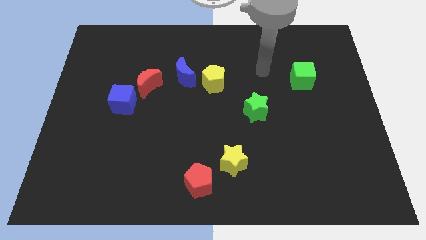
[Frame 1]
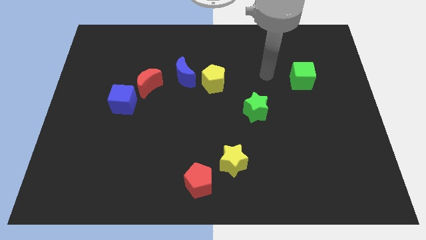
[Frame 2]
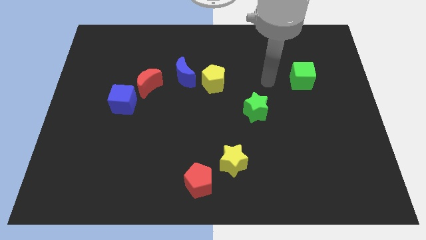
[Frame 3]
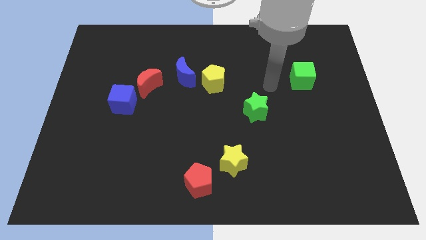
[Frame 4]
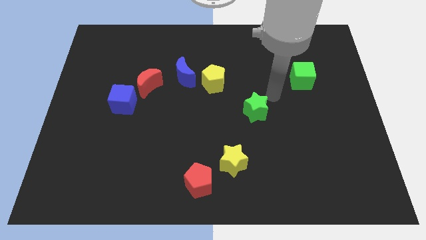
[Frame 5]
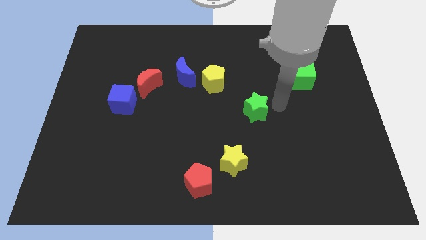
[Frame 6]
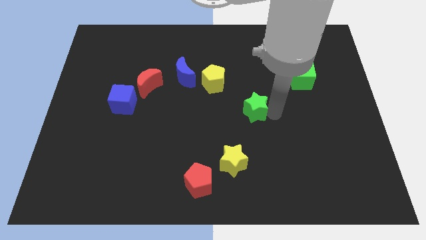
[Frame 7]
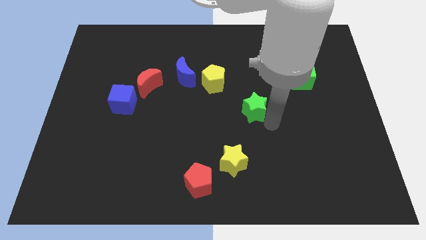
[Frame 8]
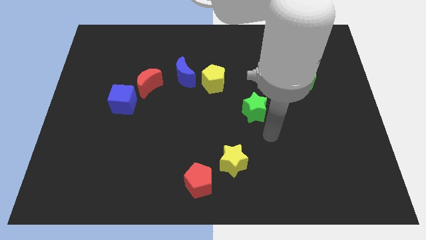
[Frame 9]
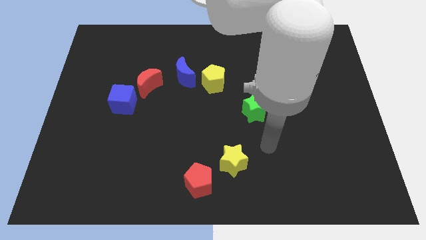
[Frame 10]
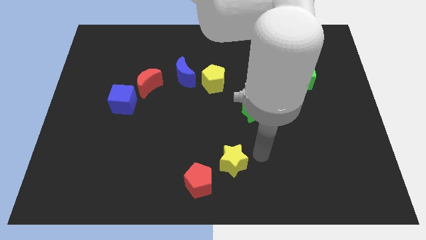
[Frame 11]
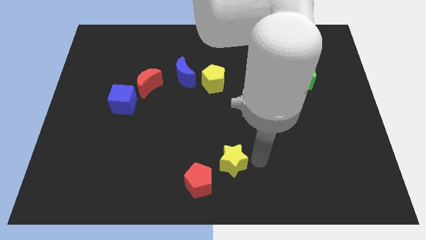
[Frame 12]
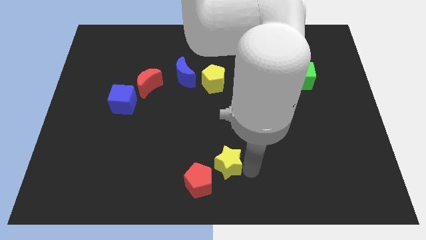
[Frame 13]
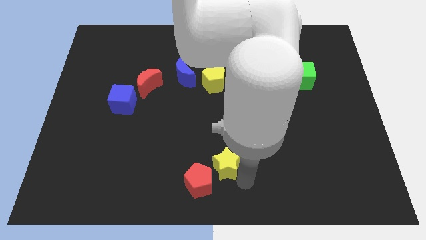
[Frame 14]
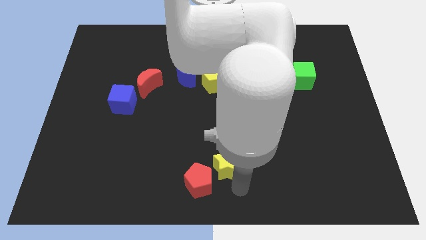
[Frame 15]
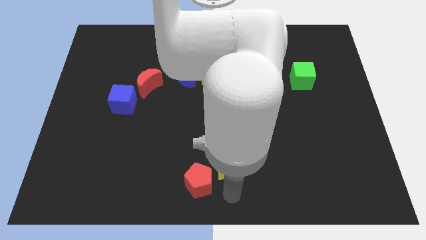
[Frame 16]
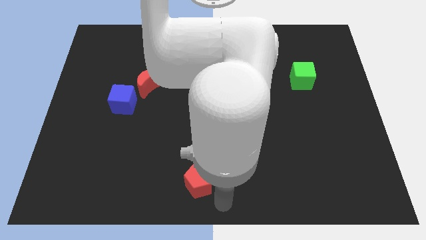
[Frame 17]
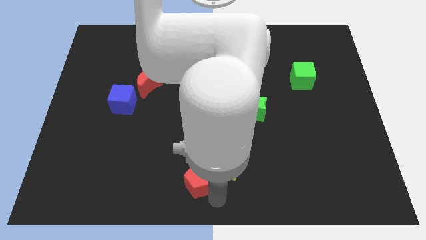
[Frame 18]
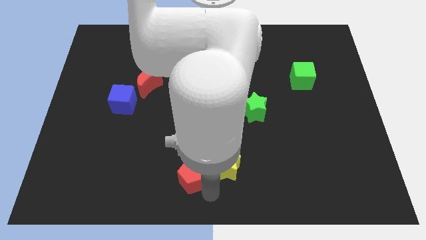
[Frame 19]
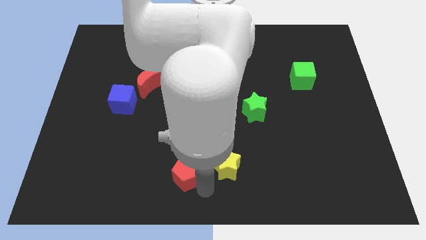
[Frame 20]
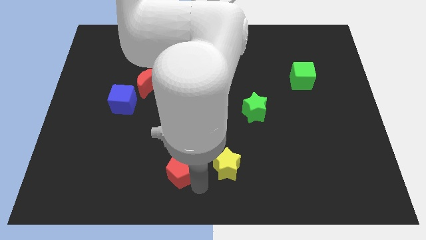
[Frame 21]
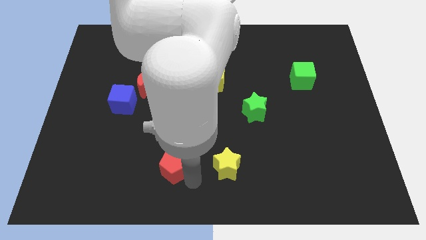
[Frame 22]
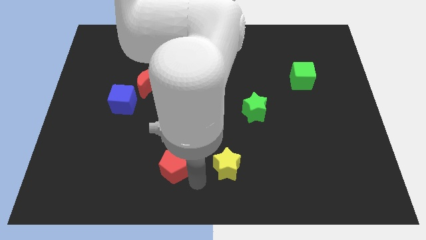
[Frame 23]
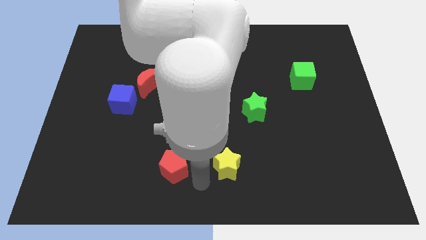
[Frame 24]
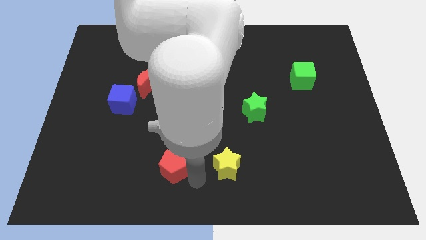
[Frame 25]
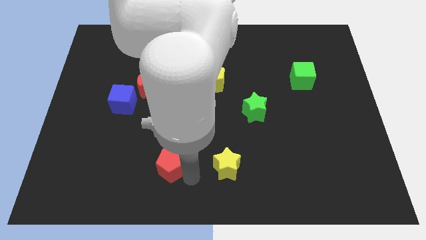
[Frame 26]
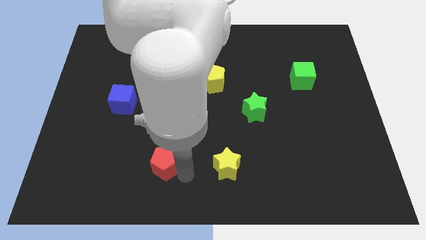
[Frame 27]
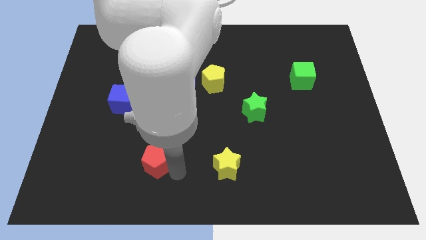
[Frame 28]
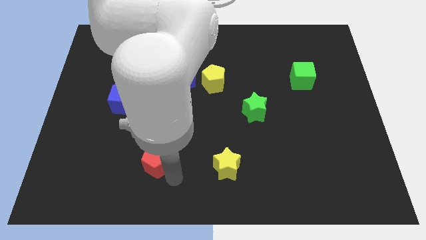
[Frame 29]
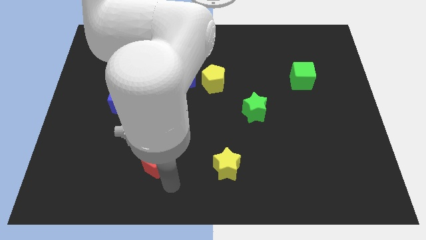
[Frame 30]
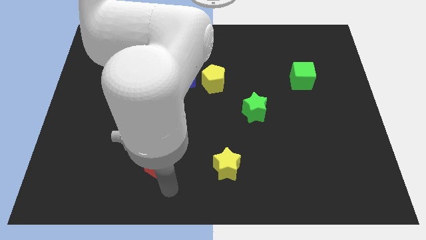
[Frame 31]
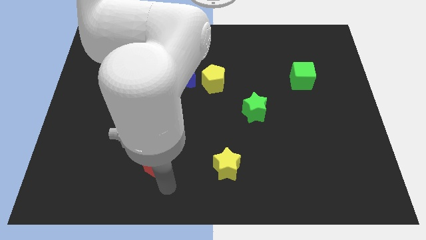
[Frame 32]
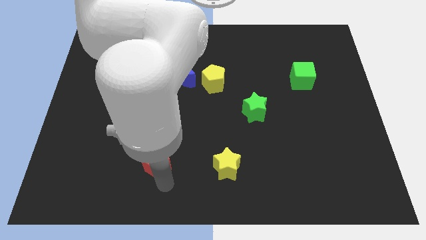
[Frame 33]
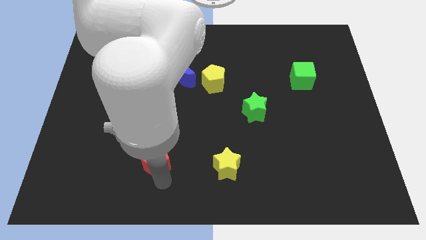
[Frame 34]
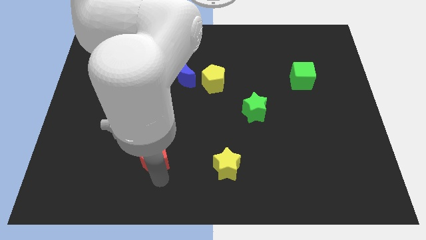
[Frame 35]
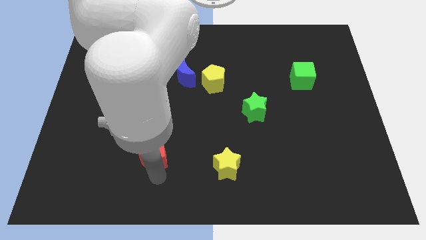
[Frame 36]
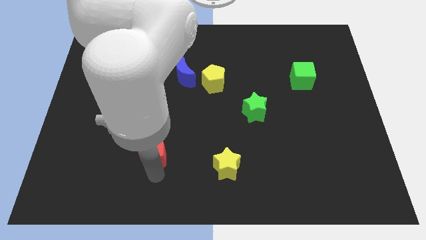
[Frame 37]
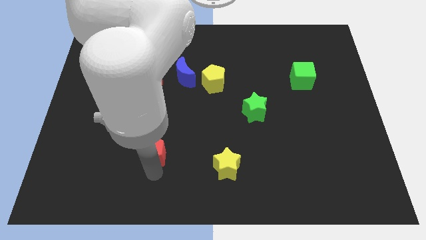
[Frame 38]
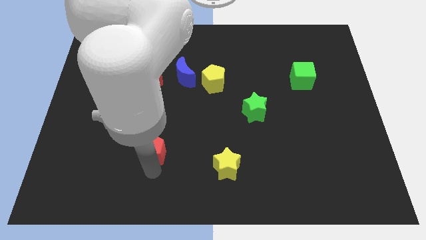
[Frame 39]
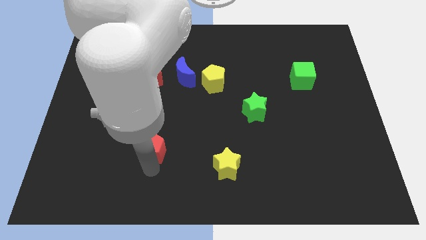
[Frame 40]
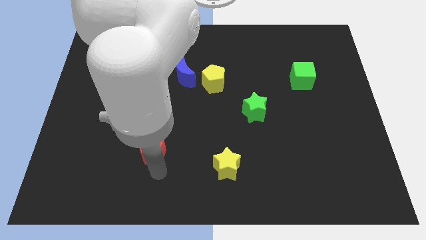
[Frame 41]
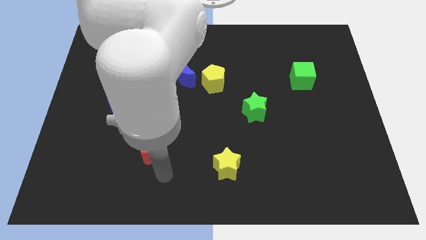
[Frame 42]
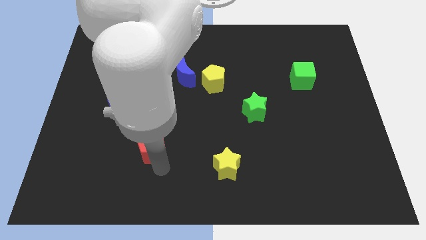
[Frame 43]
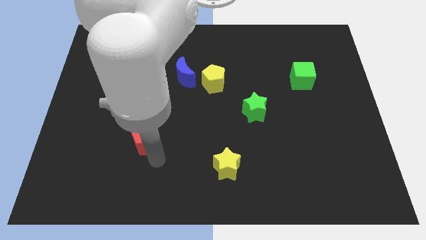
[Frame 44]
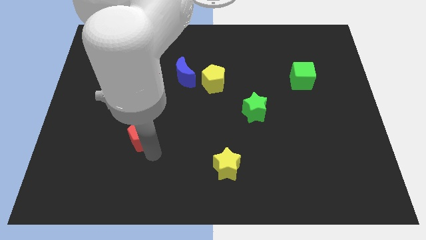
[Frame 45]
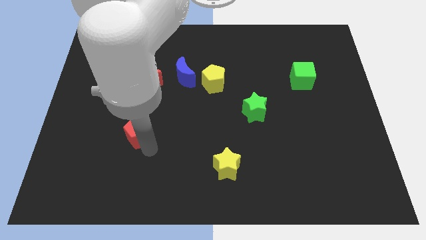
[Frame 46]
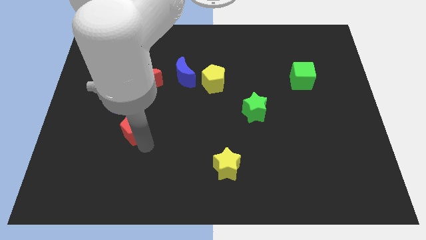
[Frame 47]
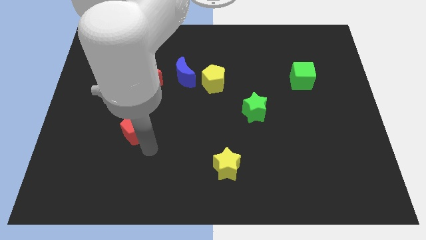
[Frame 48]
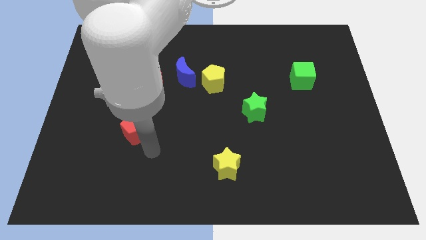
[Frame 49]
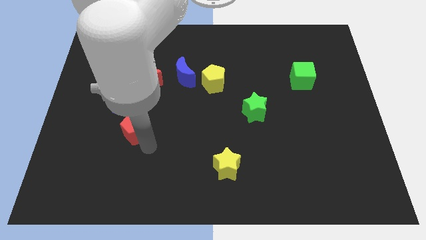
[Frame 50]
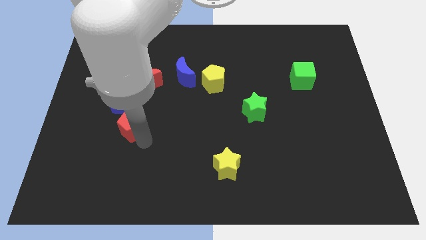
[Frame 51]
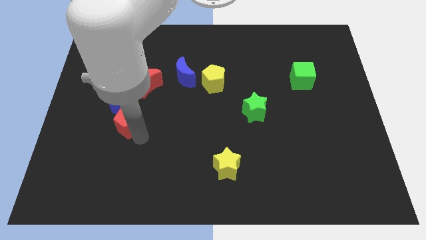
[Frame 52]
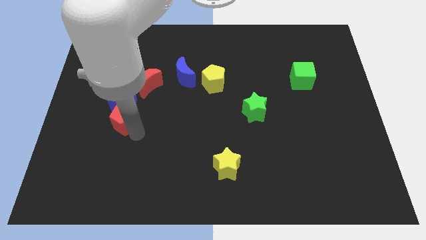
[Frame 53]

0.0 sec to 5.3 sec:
put the red pentagon close to the blue cube

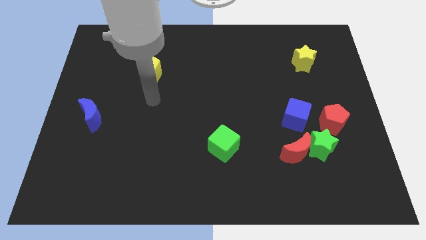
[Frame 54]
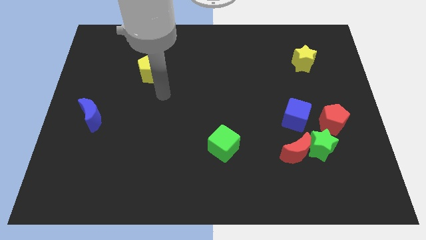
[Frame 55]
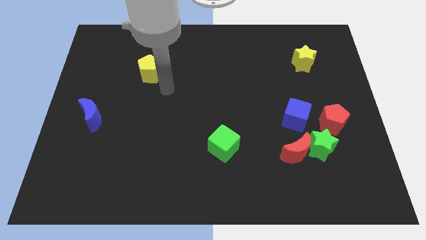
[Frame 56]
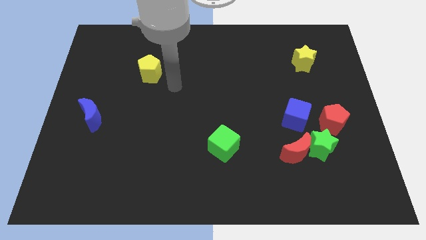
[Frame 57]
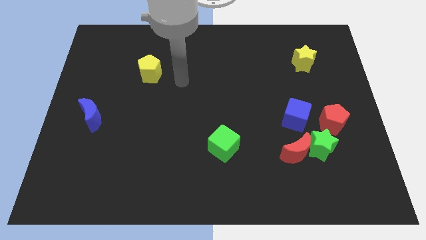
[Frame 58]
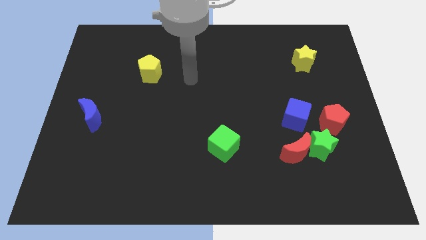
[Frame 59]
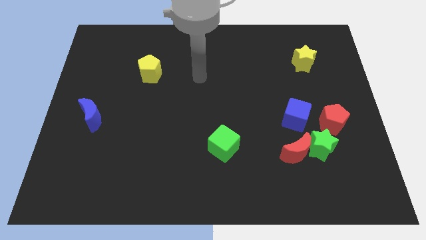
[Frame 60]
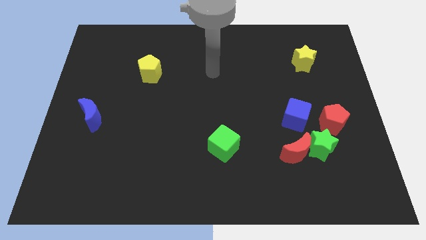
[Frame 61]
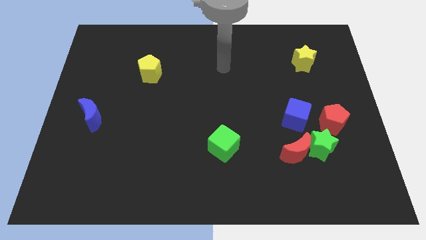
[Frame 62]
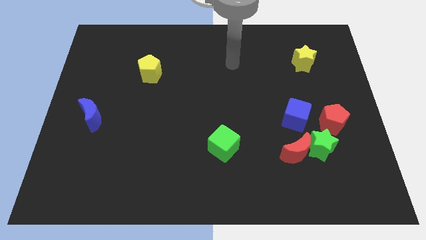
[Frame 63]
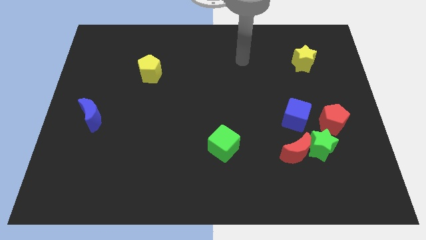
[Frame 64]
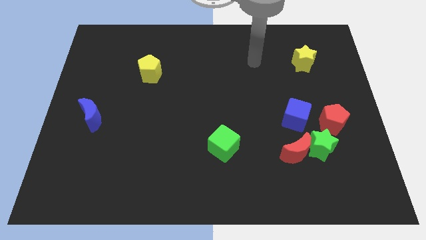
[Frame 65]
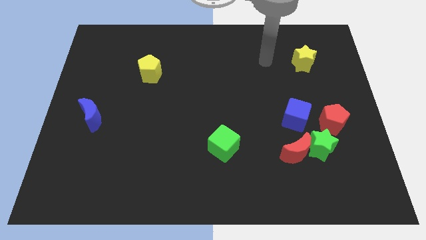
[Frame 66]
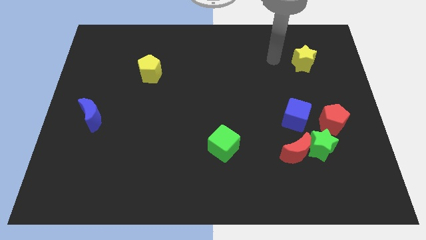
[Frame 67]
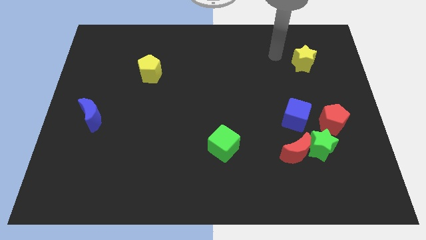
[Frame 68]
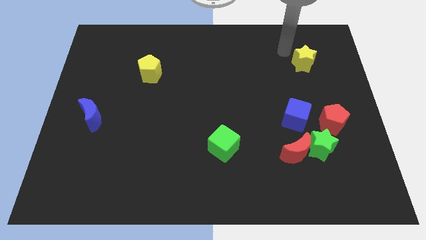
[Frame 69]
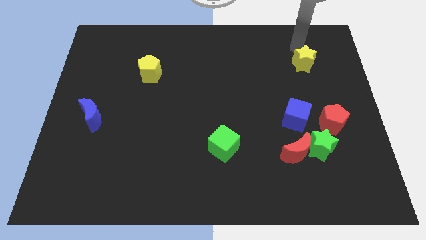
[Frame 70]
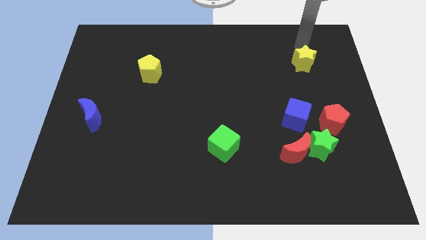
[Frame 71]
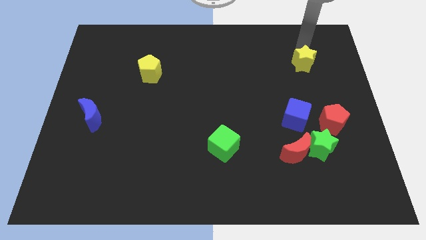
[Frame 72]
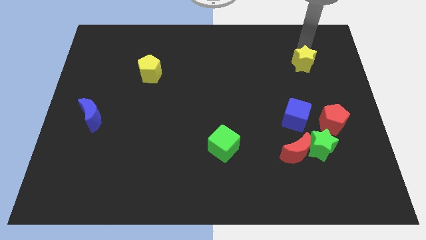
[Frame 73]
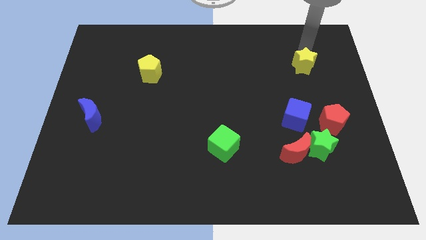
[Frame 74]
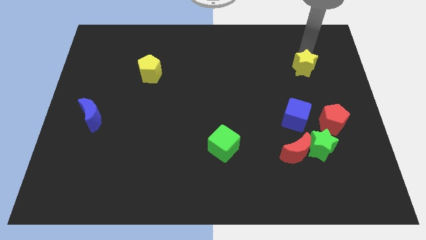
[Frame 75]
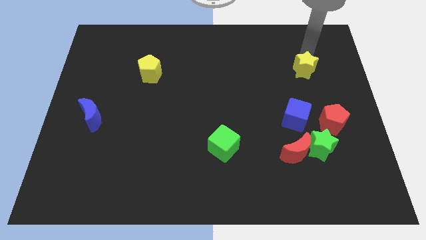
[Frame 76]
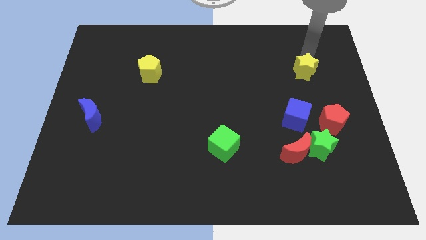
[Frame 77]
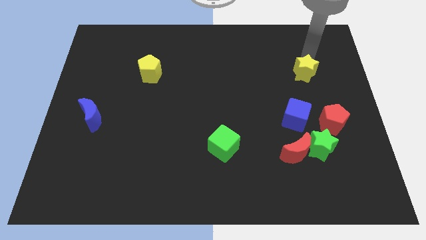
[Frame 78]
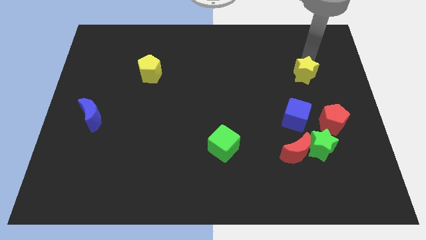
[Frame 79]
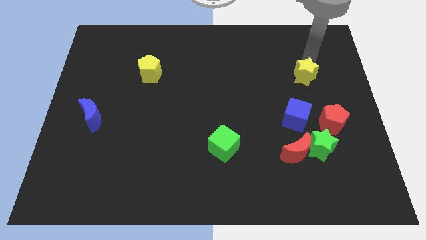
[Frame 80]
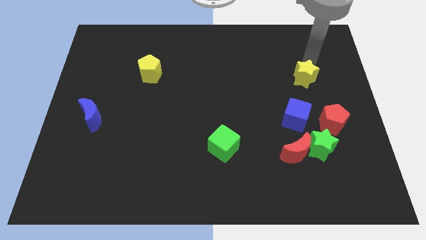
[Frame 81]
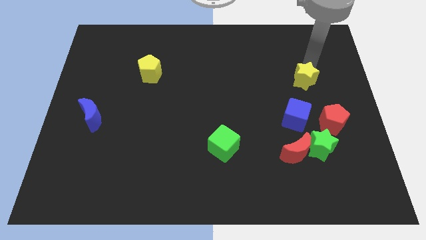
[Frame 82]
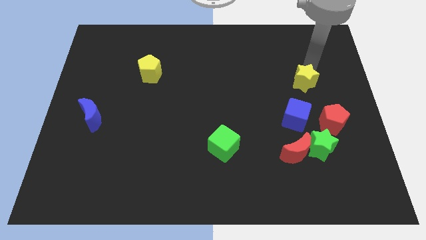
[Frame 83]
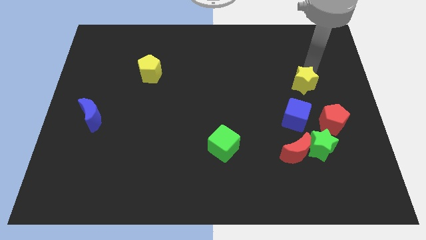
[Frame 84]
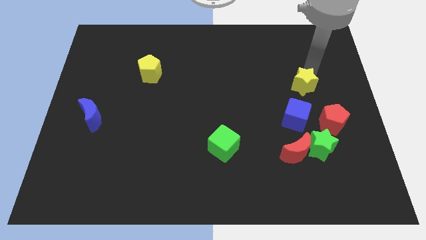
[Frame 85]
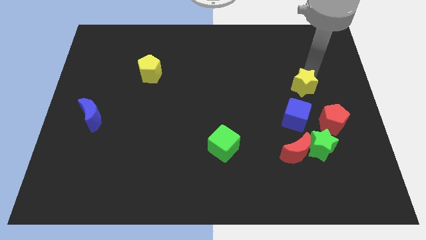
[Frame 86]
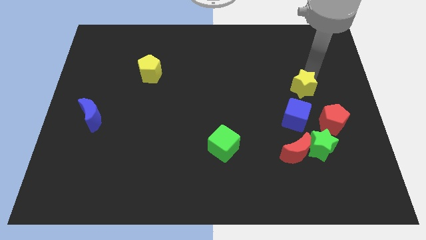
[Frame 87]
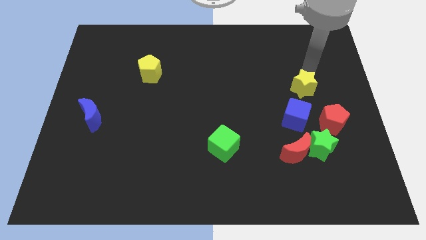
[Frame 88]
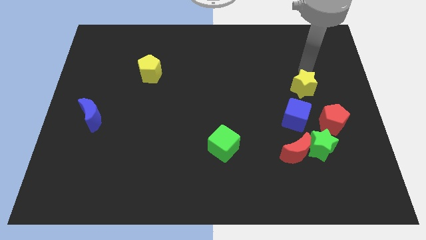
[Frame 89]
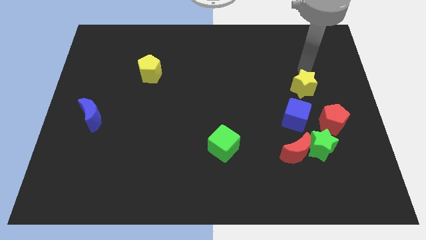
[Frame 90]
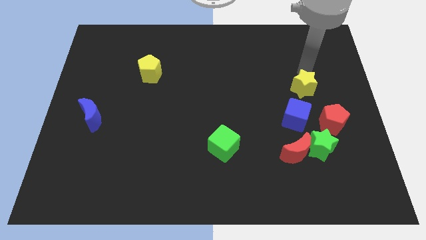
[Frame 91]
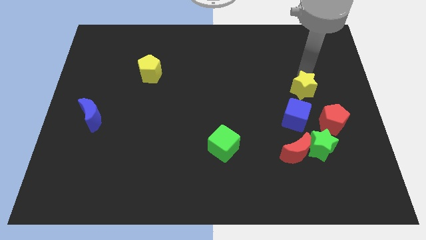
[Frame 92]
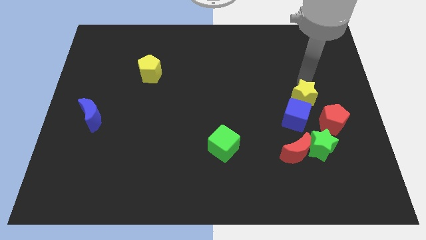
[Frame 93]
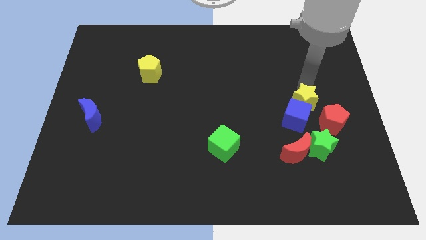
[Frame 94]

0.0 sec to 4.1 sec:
push the yellow star next to the blue cube
